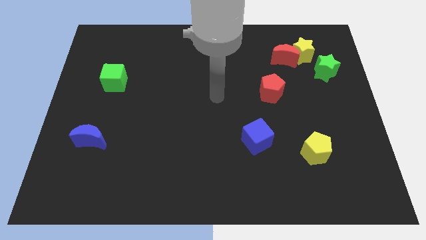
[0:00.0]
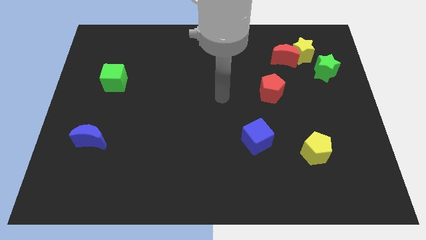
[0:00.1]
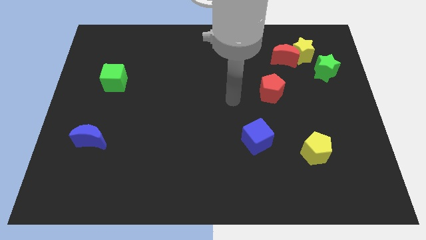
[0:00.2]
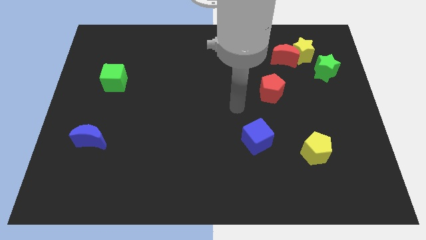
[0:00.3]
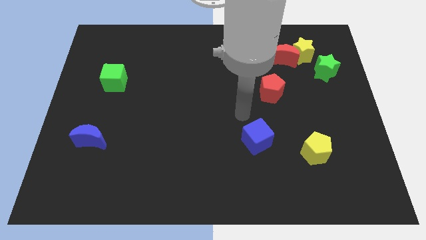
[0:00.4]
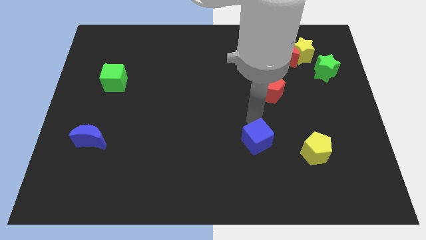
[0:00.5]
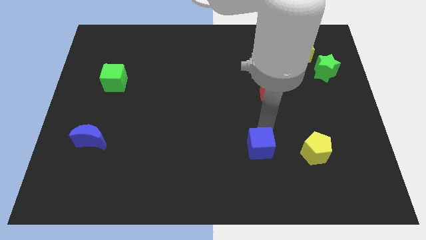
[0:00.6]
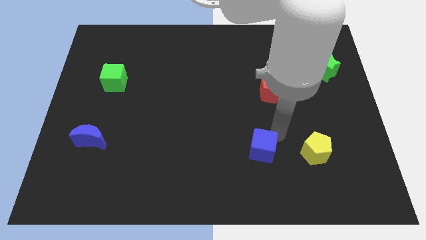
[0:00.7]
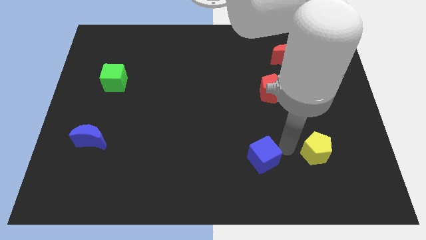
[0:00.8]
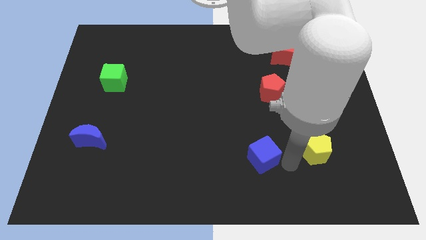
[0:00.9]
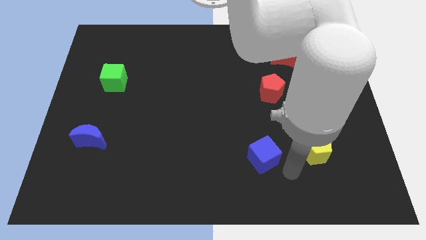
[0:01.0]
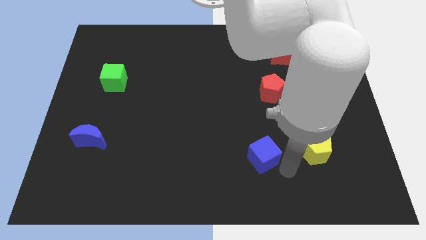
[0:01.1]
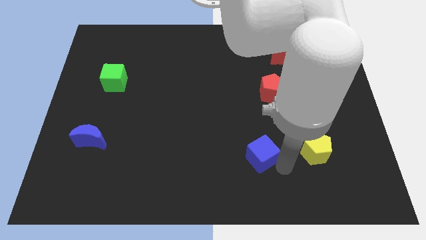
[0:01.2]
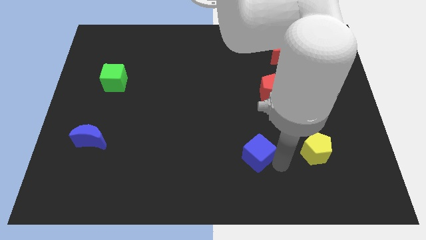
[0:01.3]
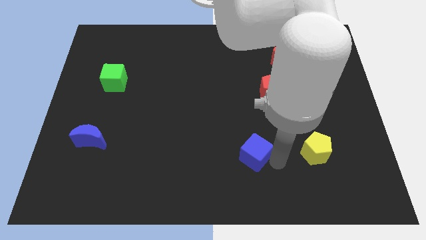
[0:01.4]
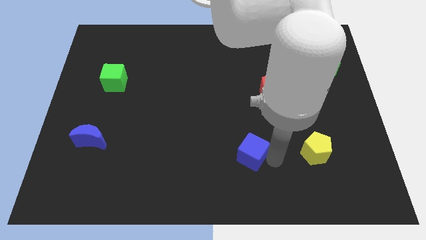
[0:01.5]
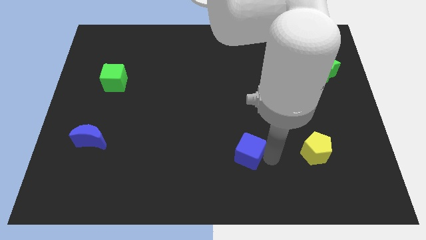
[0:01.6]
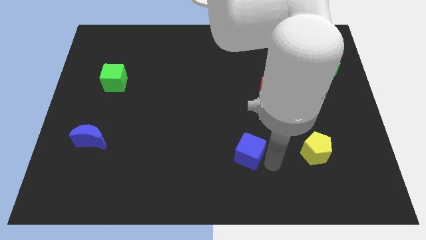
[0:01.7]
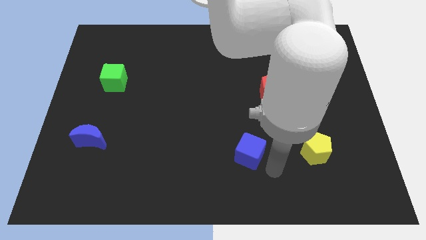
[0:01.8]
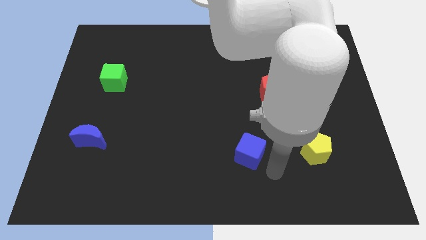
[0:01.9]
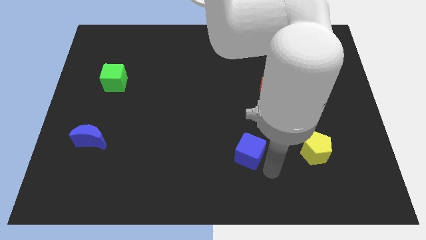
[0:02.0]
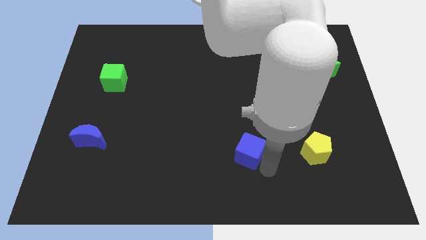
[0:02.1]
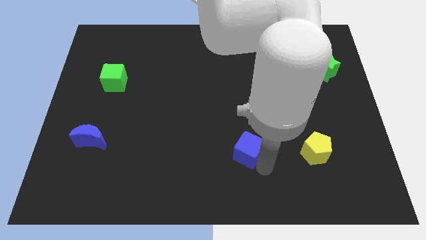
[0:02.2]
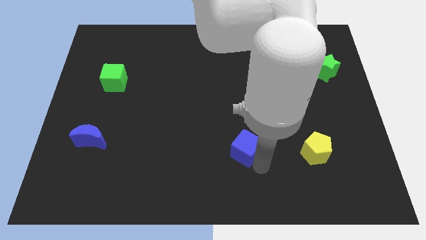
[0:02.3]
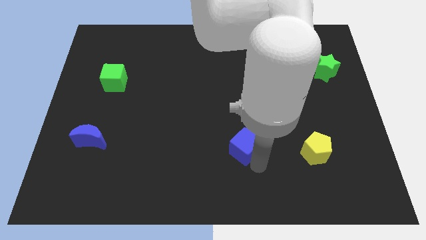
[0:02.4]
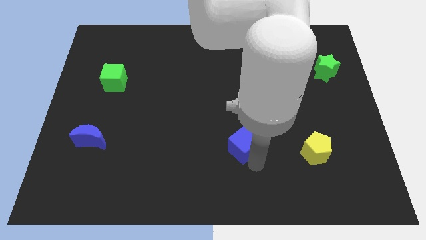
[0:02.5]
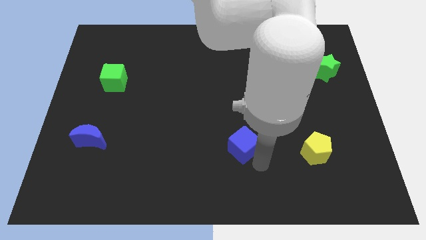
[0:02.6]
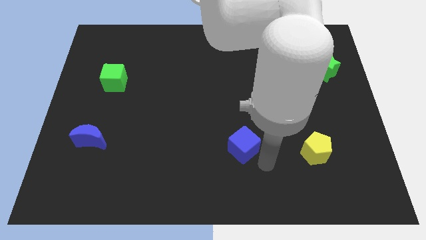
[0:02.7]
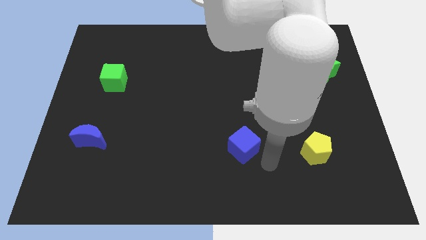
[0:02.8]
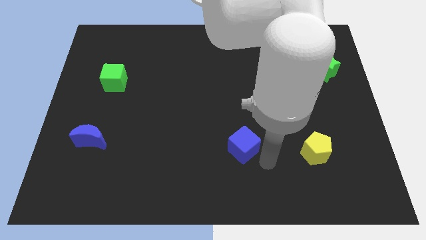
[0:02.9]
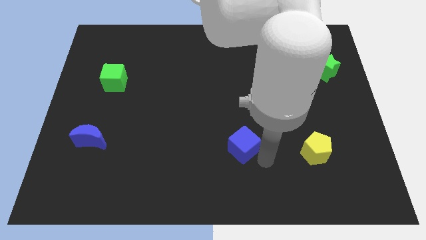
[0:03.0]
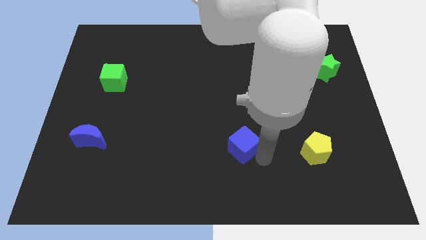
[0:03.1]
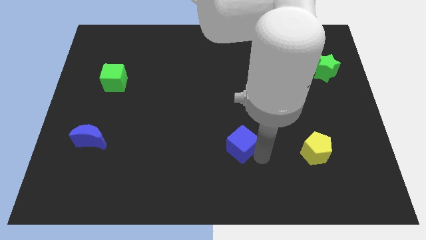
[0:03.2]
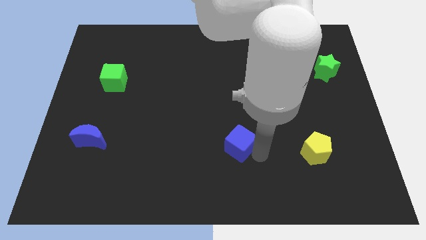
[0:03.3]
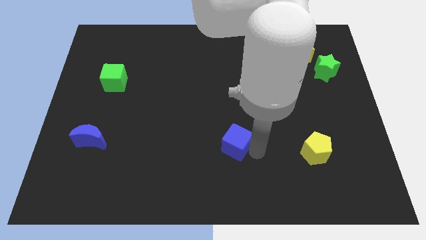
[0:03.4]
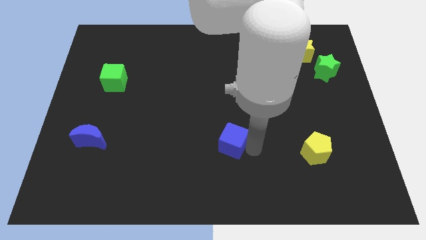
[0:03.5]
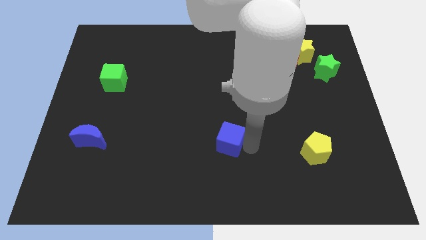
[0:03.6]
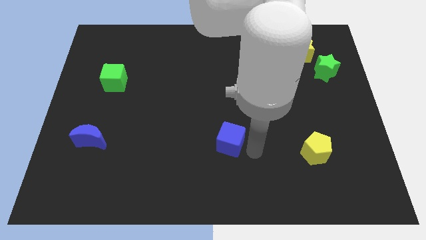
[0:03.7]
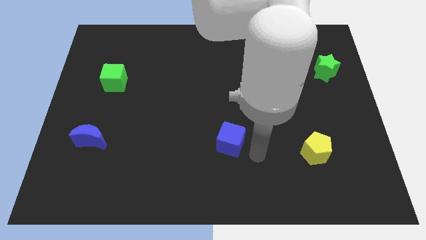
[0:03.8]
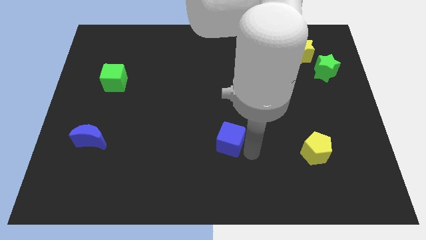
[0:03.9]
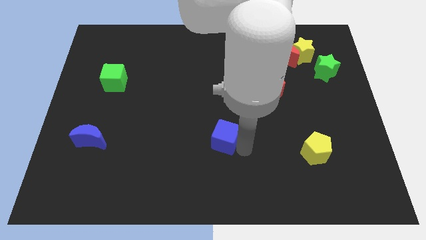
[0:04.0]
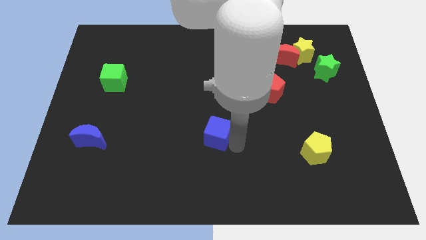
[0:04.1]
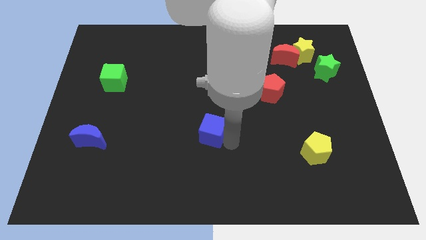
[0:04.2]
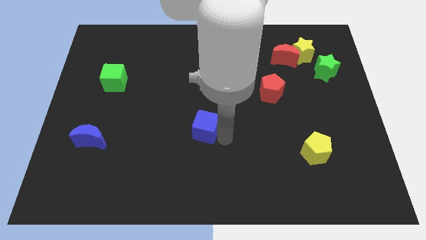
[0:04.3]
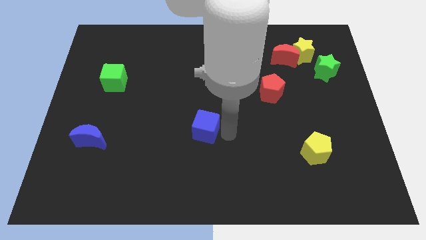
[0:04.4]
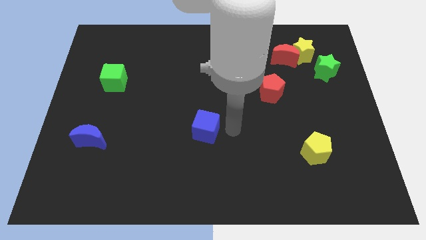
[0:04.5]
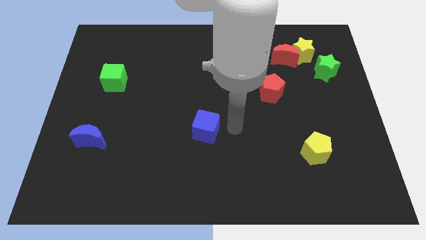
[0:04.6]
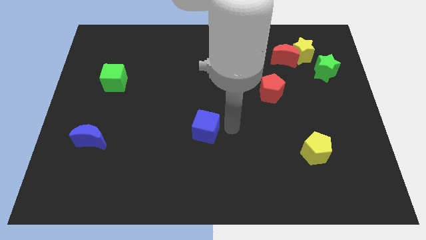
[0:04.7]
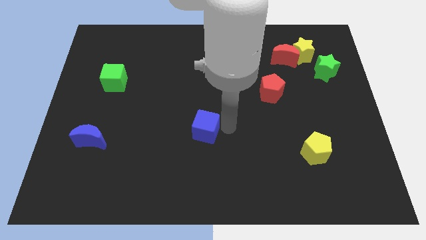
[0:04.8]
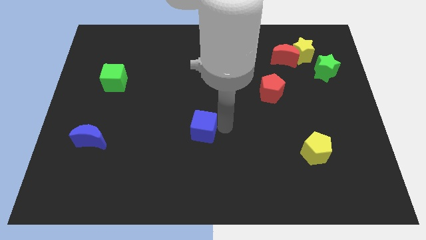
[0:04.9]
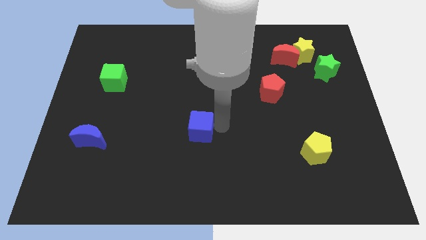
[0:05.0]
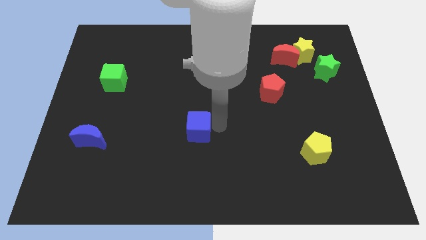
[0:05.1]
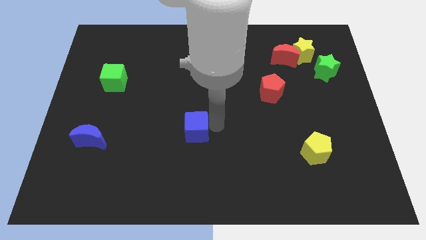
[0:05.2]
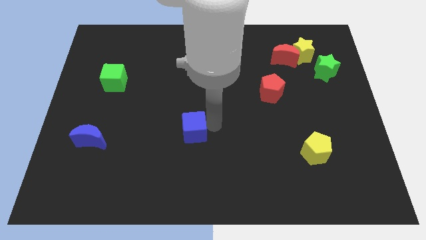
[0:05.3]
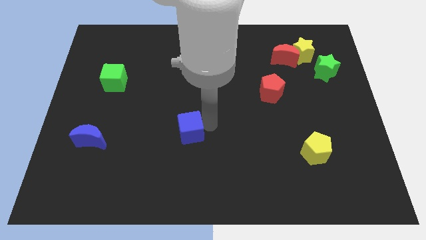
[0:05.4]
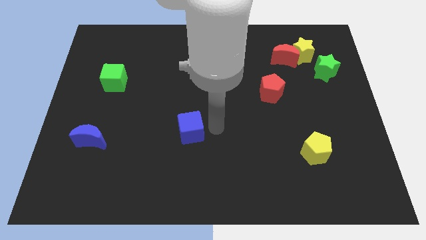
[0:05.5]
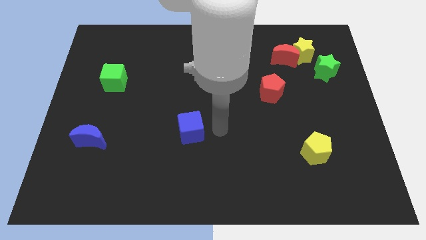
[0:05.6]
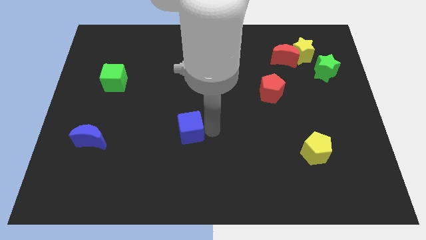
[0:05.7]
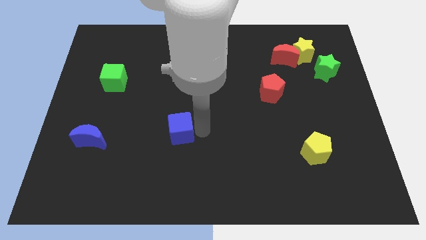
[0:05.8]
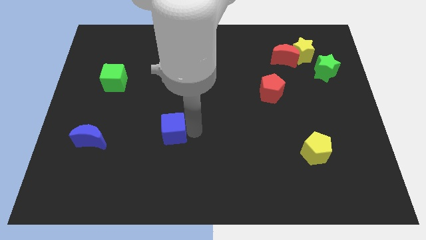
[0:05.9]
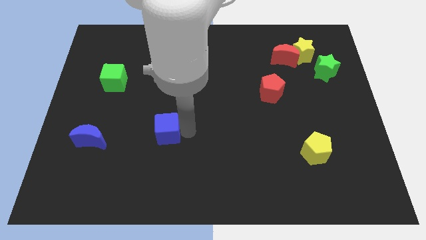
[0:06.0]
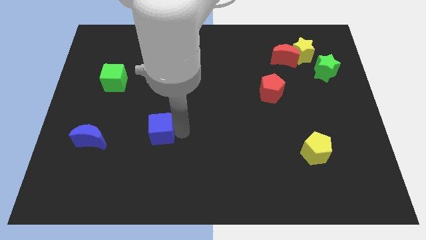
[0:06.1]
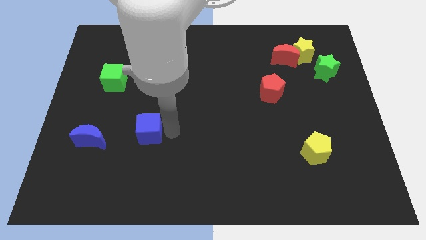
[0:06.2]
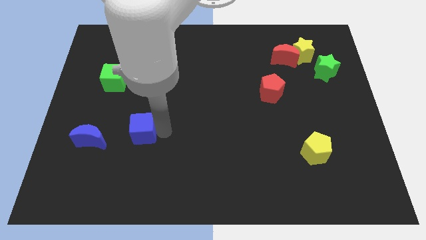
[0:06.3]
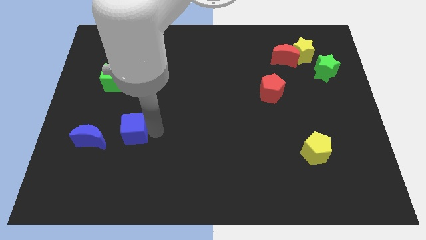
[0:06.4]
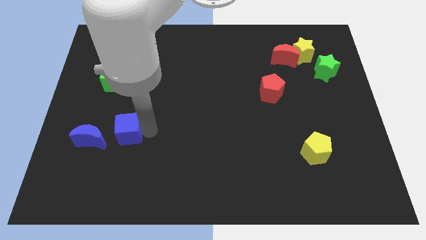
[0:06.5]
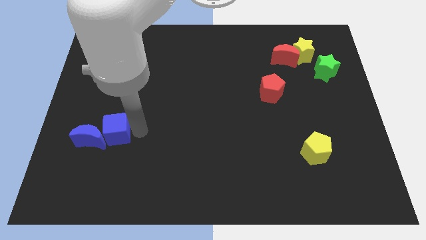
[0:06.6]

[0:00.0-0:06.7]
put the blue cube to the blue moon
